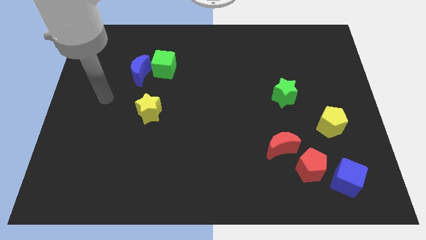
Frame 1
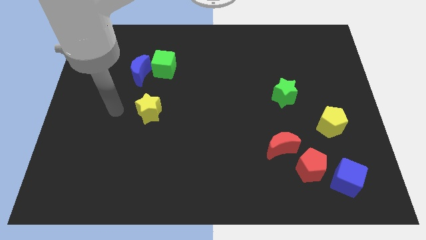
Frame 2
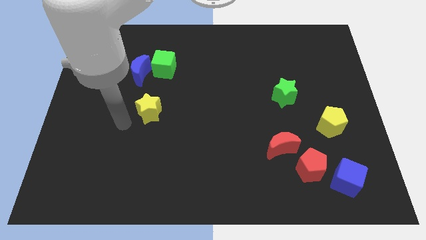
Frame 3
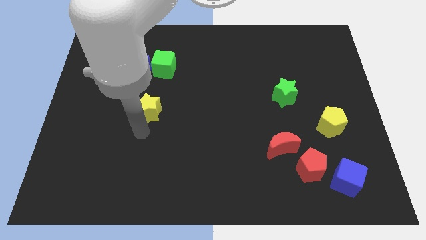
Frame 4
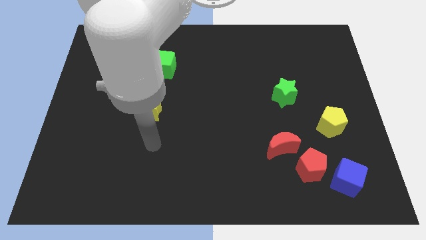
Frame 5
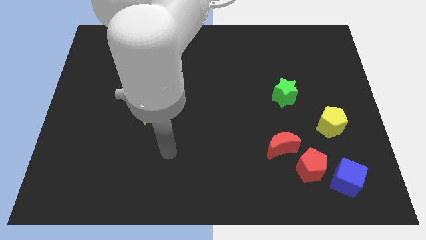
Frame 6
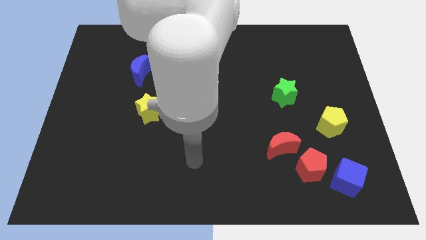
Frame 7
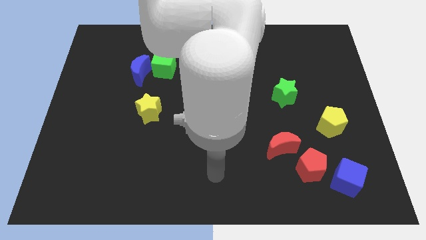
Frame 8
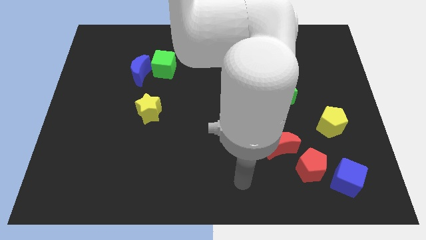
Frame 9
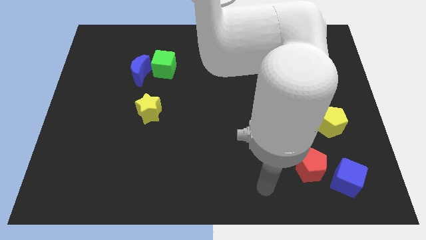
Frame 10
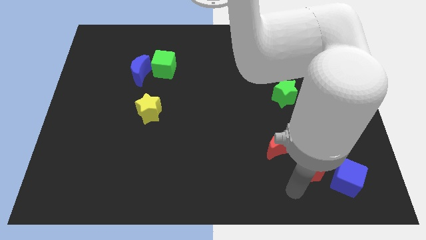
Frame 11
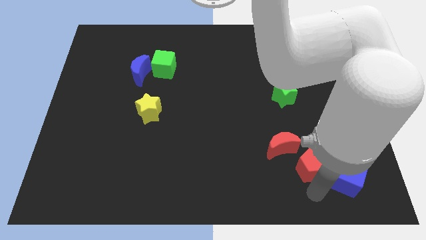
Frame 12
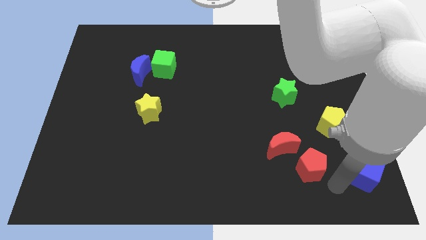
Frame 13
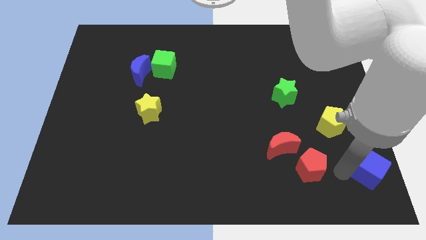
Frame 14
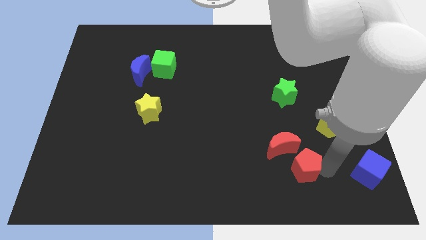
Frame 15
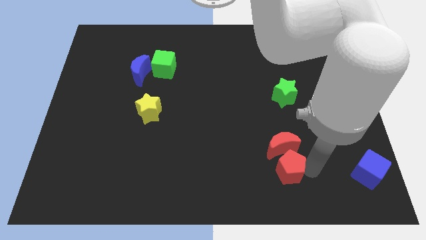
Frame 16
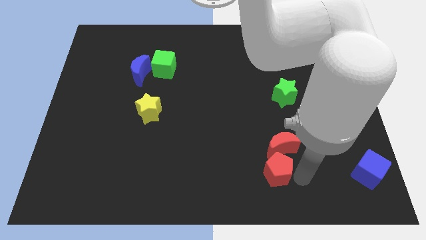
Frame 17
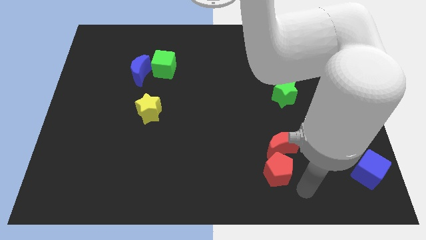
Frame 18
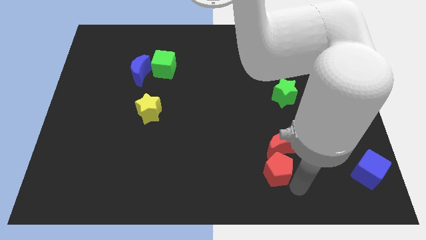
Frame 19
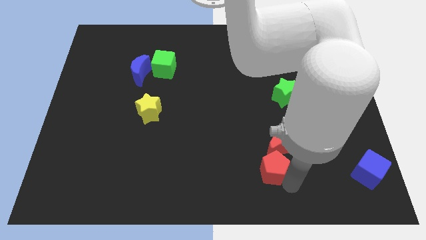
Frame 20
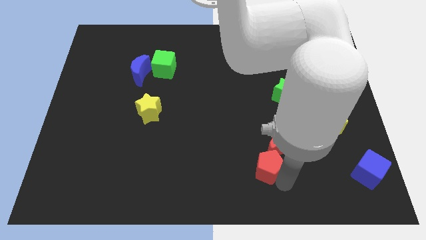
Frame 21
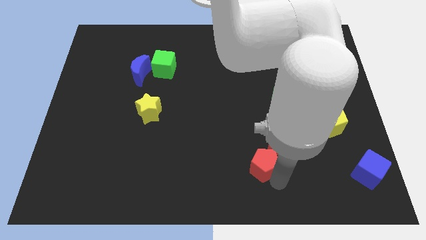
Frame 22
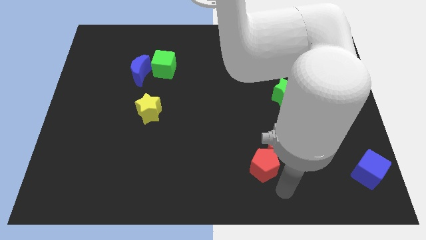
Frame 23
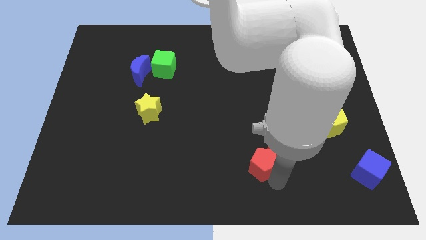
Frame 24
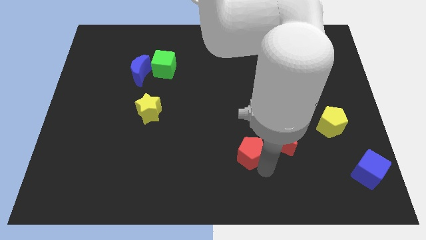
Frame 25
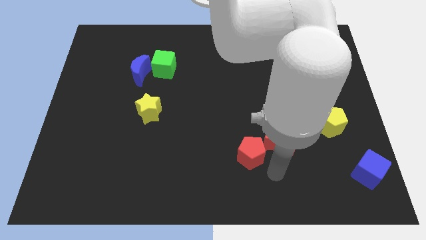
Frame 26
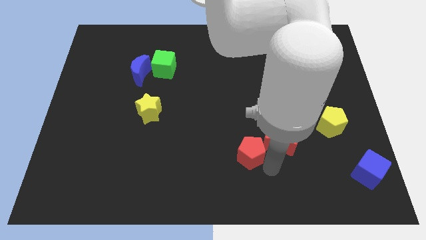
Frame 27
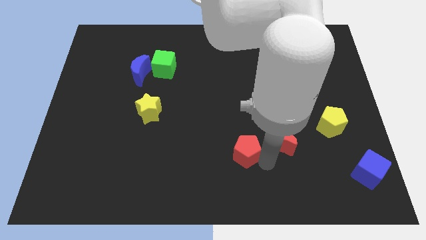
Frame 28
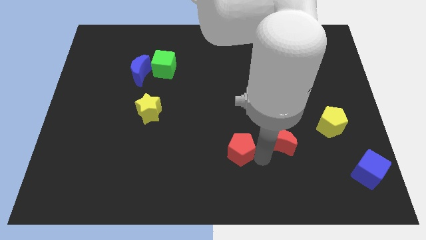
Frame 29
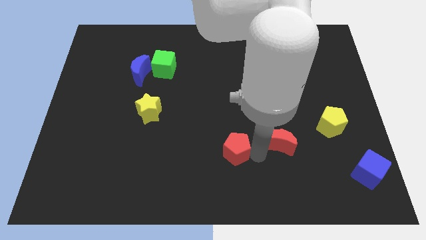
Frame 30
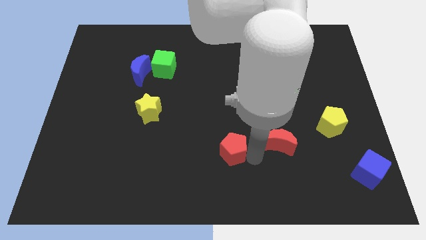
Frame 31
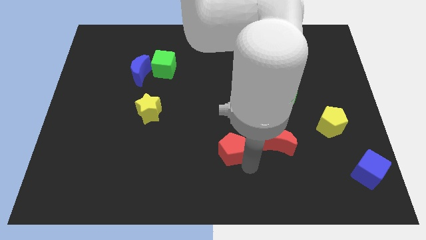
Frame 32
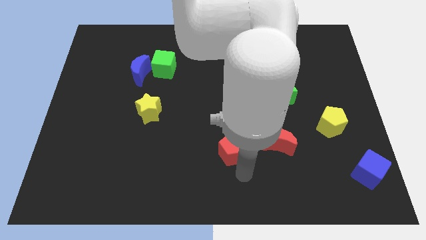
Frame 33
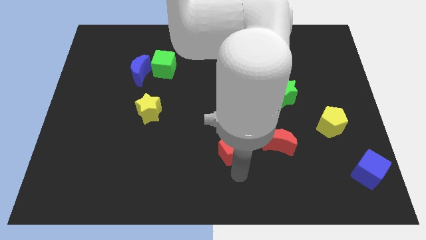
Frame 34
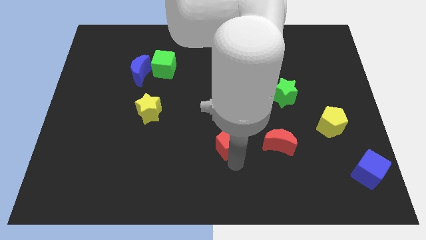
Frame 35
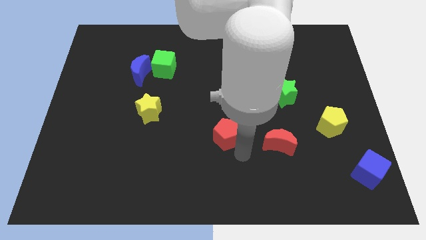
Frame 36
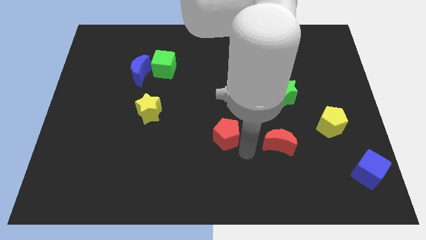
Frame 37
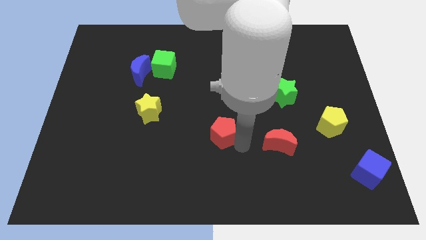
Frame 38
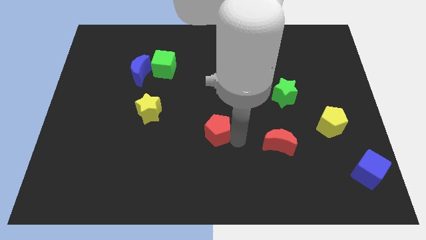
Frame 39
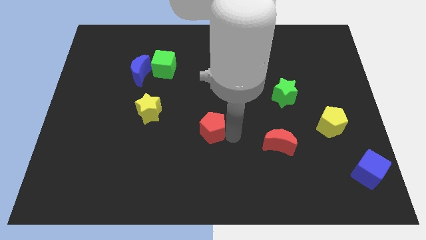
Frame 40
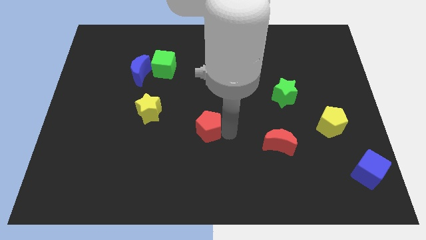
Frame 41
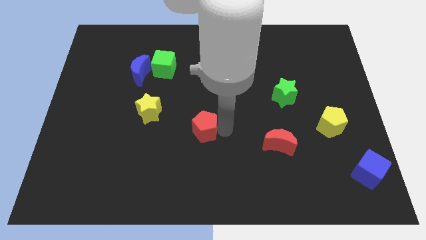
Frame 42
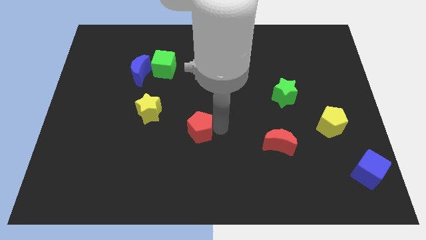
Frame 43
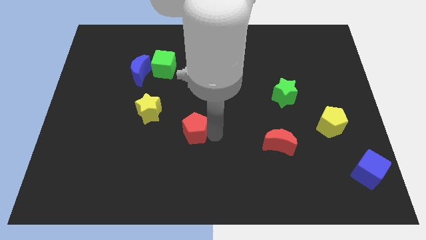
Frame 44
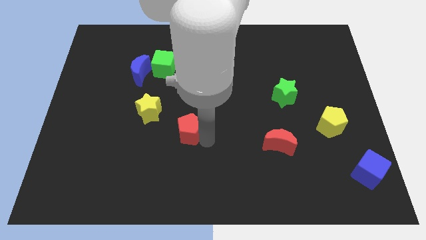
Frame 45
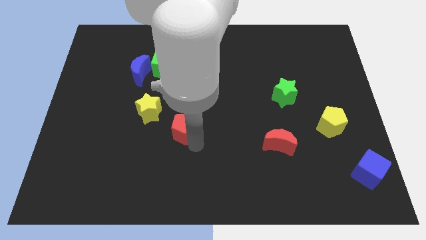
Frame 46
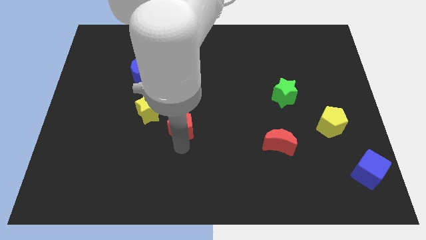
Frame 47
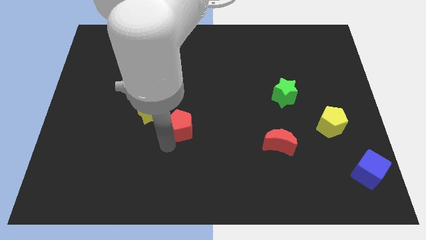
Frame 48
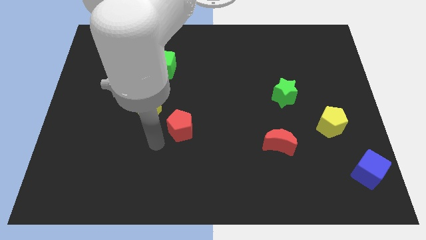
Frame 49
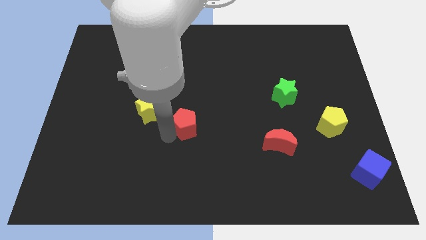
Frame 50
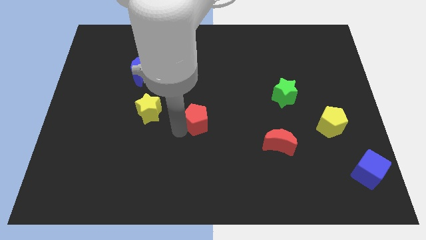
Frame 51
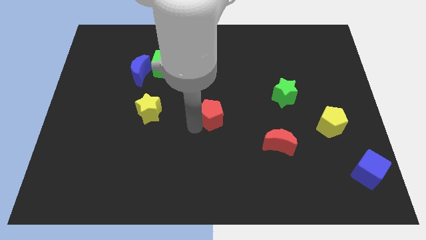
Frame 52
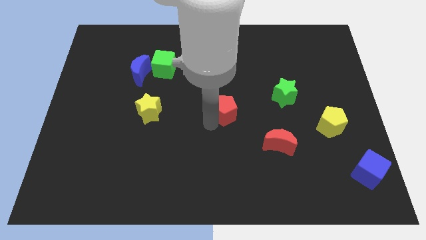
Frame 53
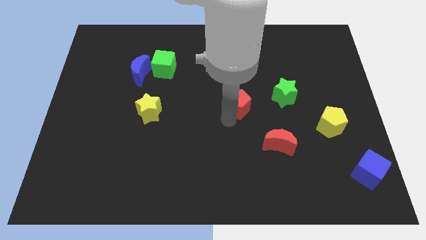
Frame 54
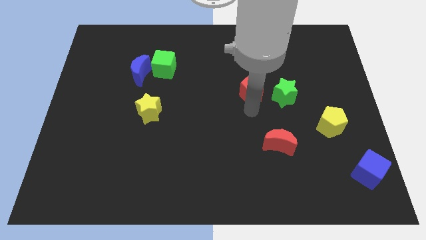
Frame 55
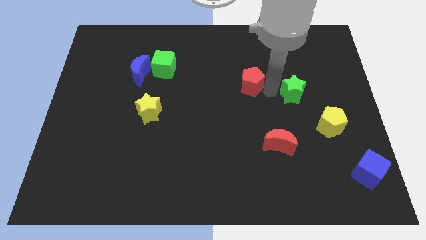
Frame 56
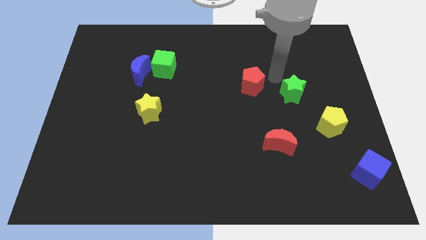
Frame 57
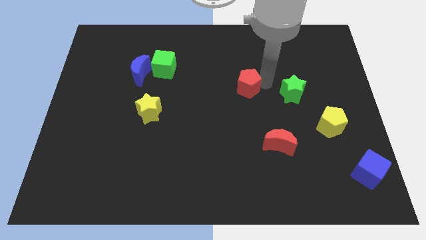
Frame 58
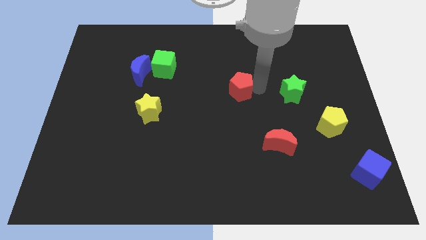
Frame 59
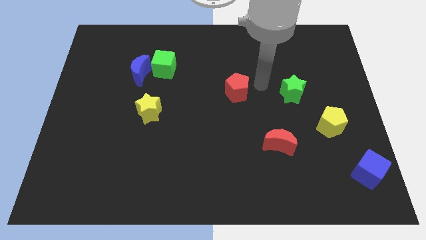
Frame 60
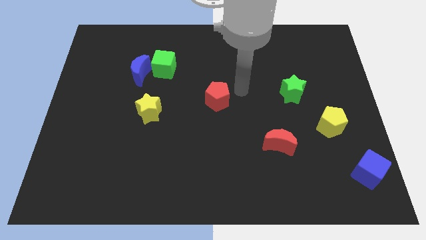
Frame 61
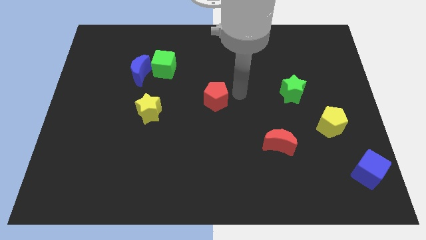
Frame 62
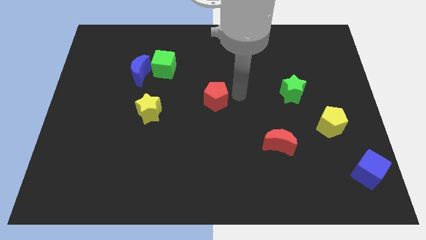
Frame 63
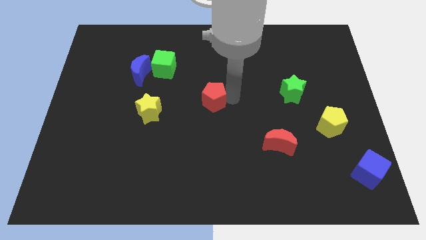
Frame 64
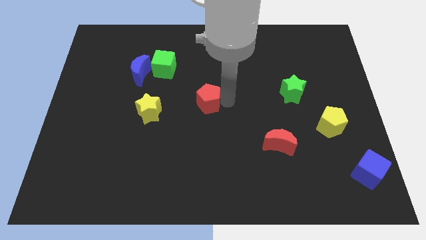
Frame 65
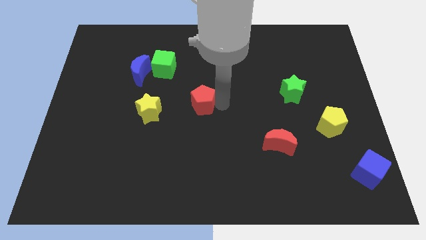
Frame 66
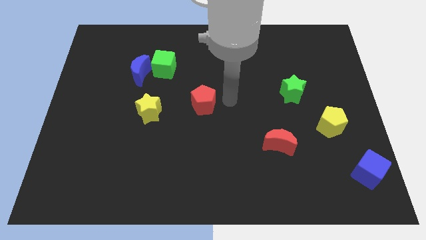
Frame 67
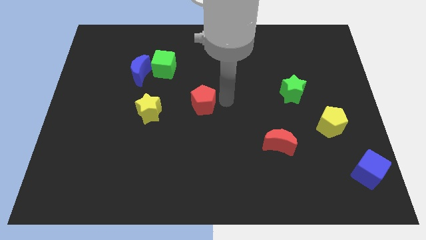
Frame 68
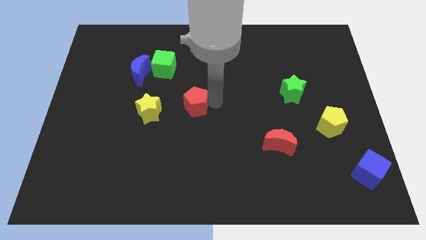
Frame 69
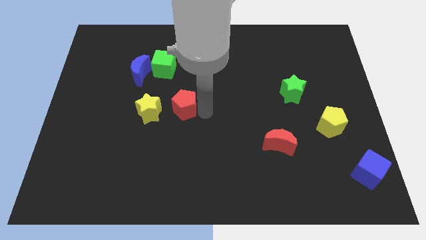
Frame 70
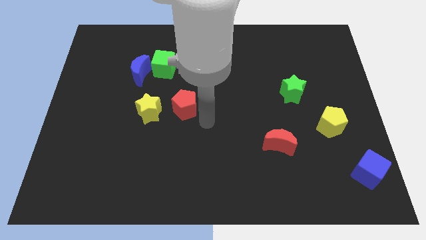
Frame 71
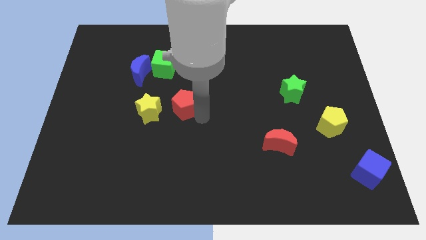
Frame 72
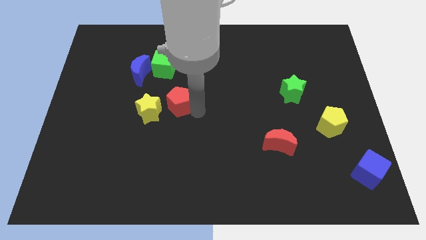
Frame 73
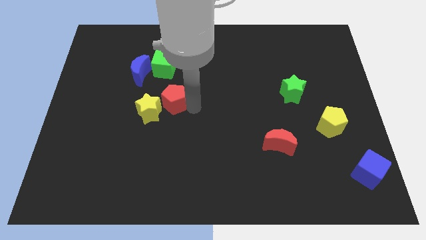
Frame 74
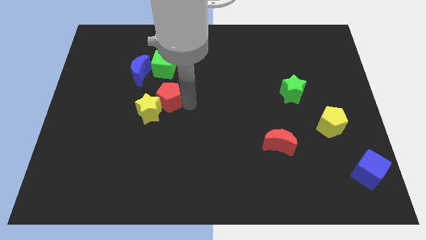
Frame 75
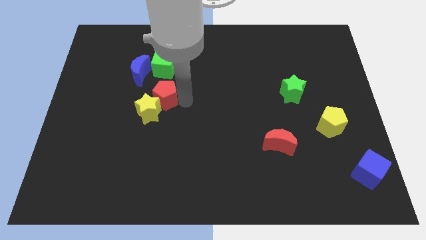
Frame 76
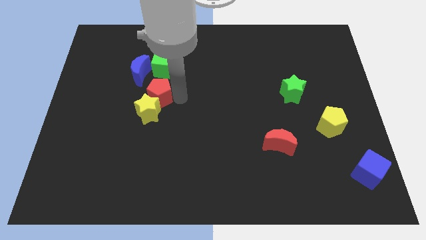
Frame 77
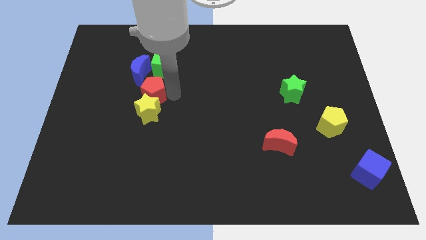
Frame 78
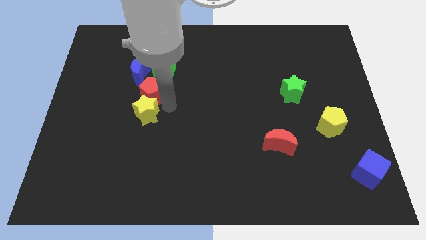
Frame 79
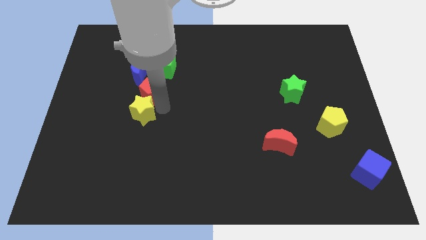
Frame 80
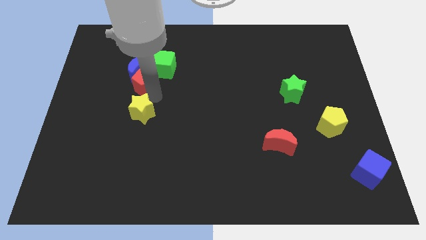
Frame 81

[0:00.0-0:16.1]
push the red pentagon next to the blue moon
